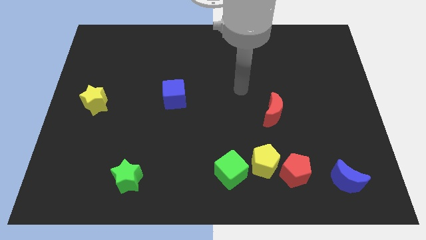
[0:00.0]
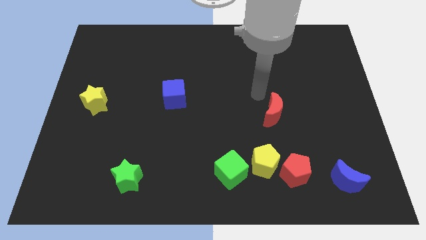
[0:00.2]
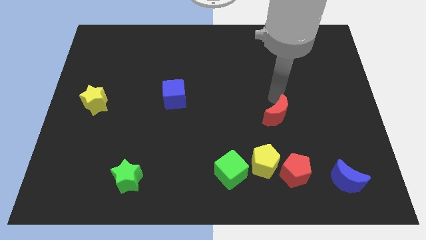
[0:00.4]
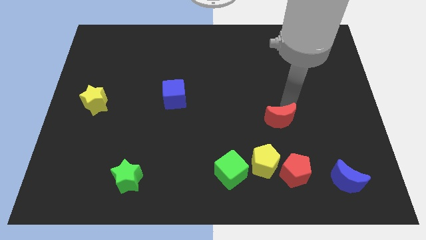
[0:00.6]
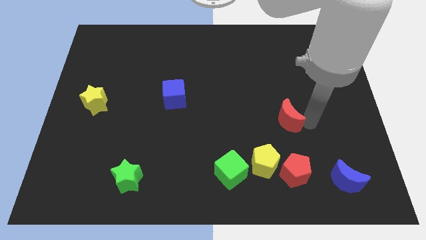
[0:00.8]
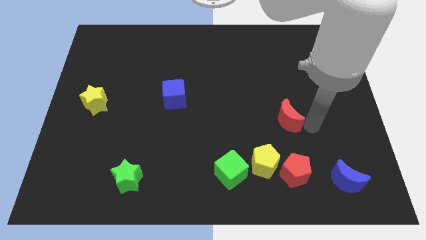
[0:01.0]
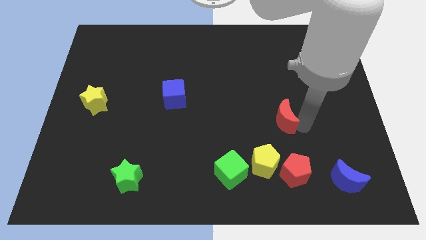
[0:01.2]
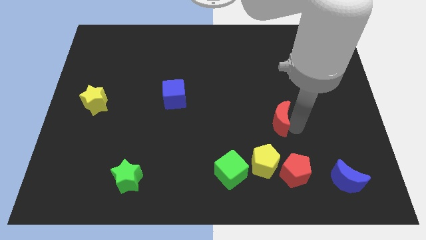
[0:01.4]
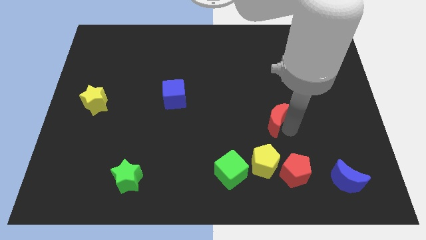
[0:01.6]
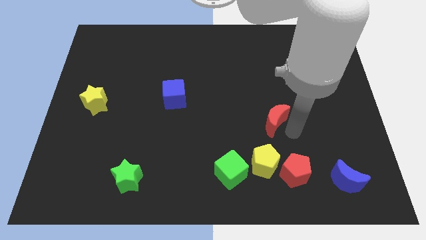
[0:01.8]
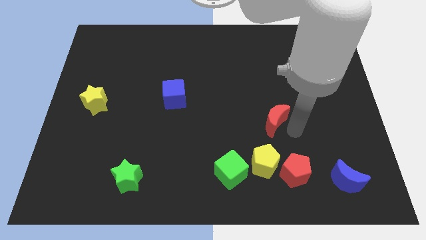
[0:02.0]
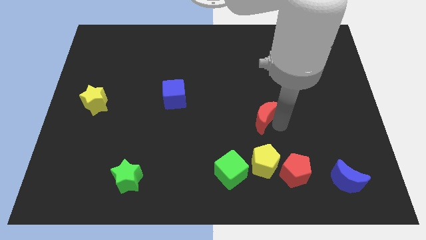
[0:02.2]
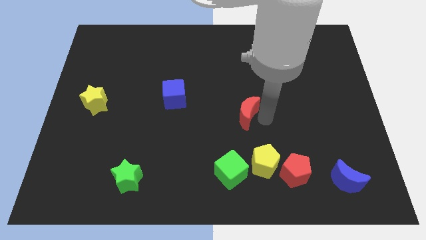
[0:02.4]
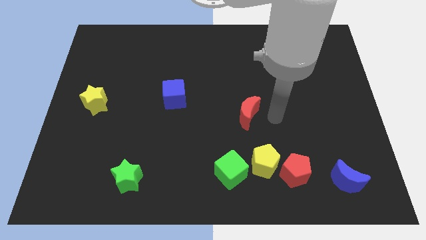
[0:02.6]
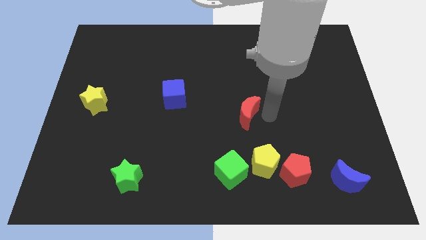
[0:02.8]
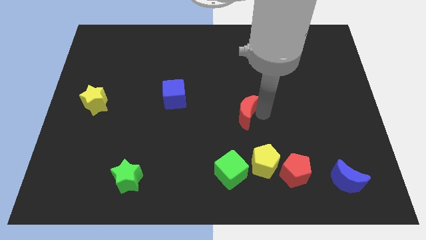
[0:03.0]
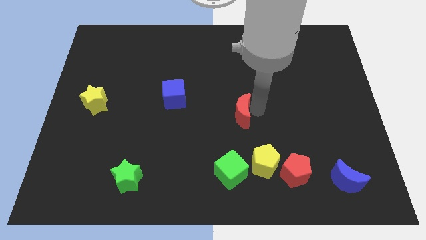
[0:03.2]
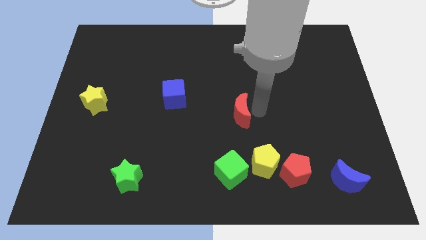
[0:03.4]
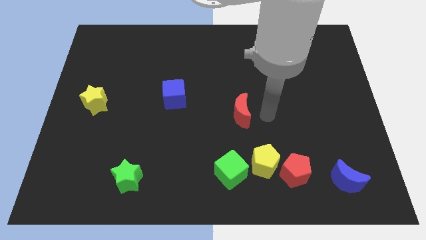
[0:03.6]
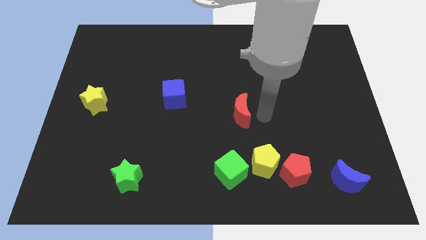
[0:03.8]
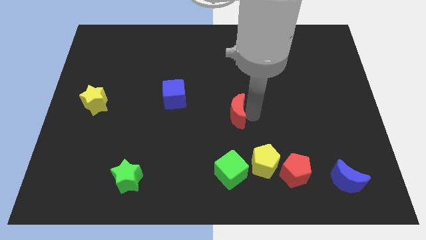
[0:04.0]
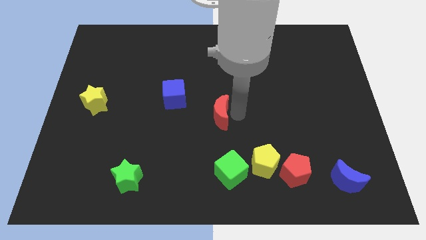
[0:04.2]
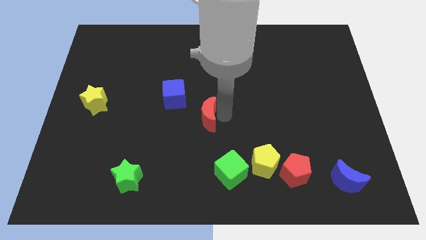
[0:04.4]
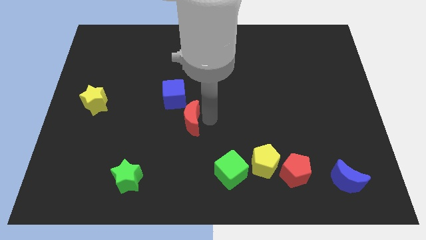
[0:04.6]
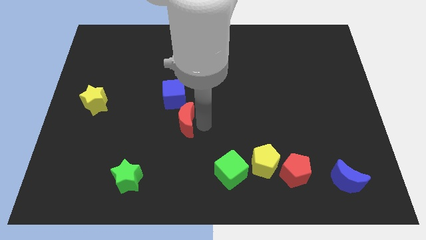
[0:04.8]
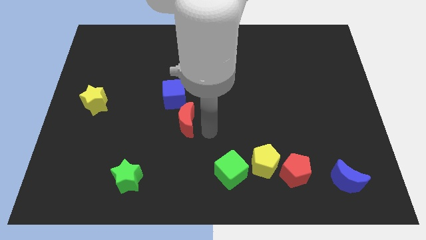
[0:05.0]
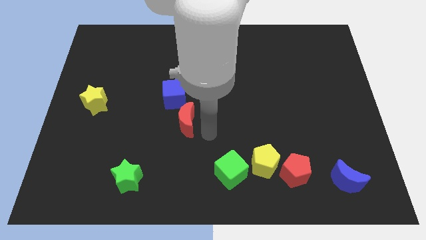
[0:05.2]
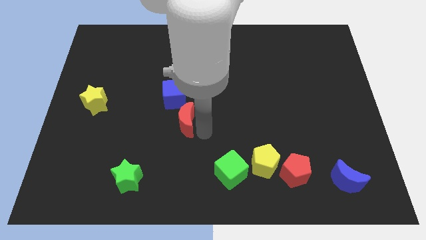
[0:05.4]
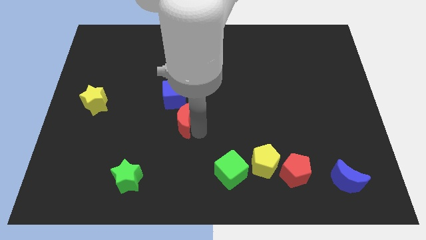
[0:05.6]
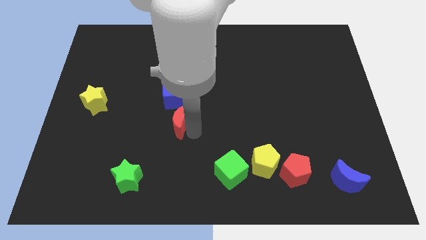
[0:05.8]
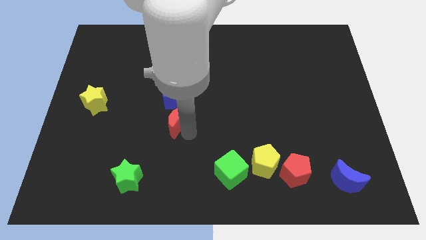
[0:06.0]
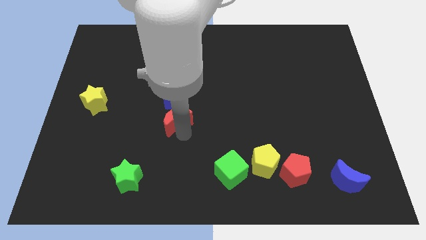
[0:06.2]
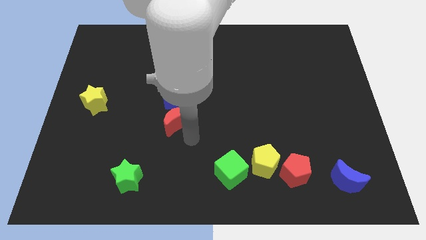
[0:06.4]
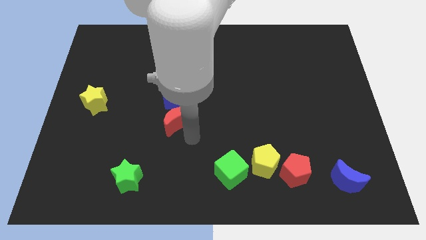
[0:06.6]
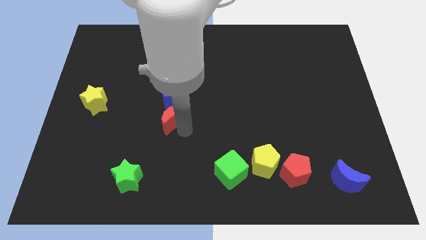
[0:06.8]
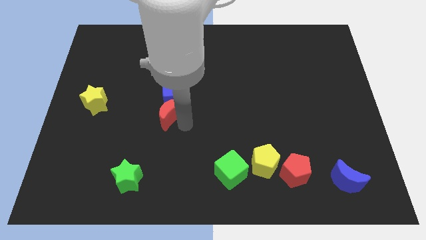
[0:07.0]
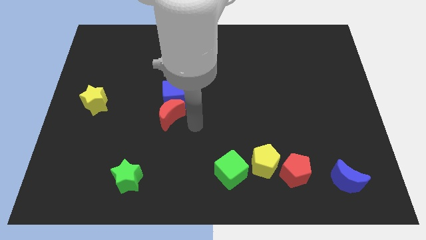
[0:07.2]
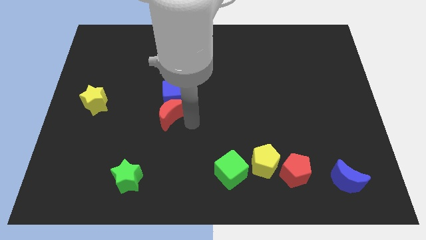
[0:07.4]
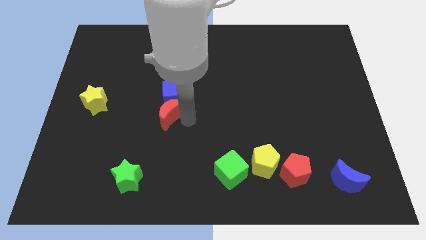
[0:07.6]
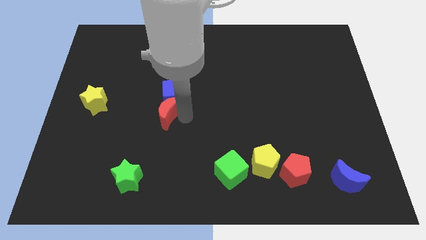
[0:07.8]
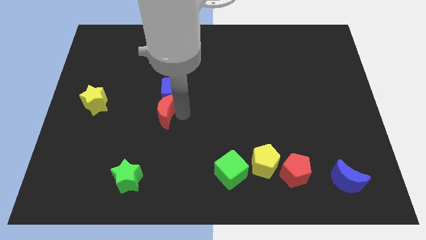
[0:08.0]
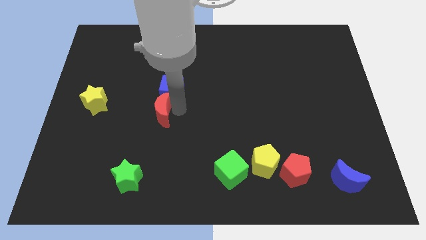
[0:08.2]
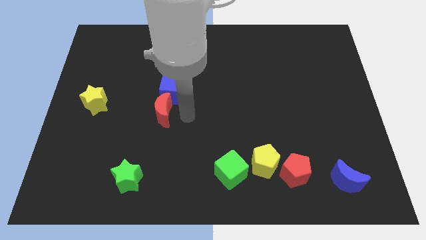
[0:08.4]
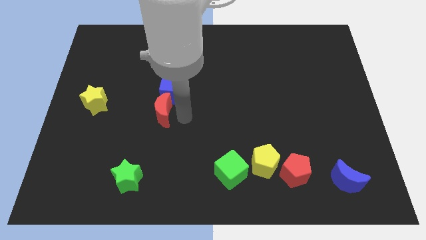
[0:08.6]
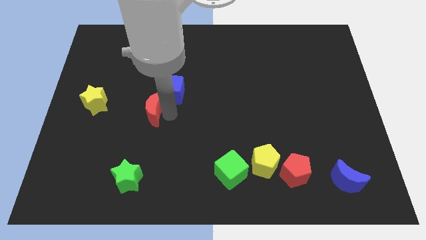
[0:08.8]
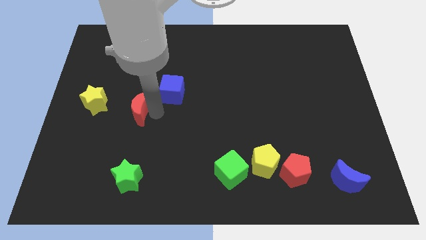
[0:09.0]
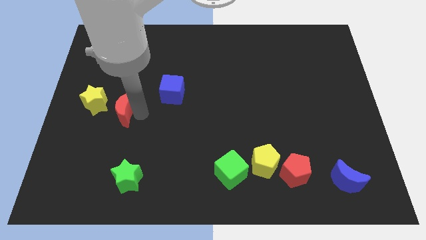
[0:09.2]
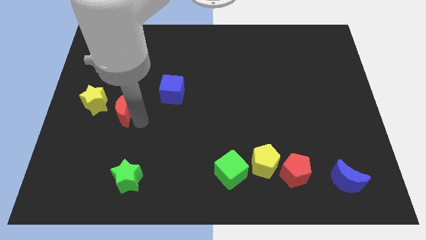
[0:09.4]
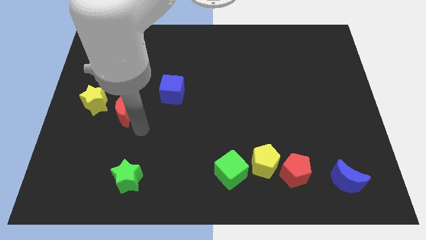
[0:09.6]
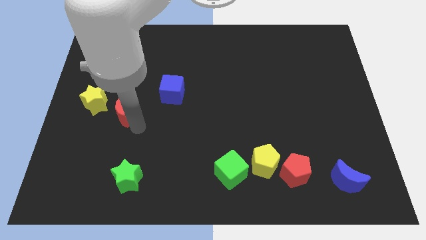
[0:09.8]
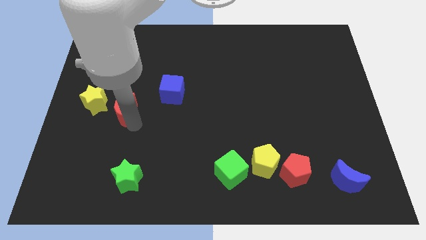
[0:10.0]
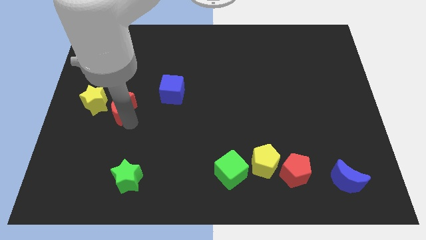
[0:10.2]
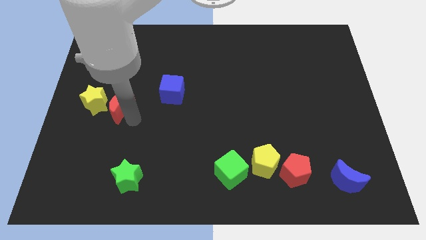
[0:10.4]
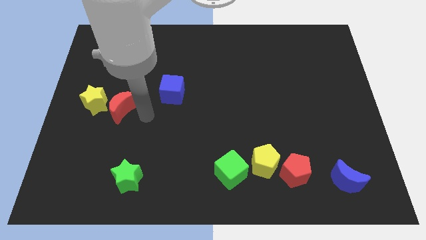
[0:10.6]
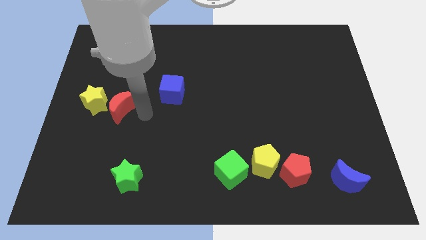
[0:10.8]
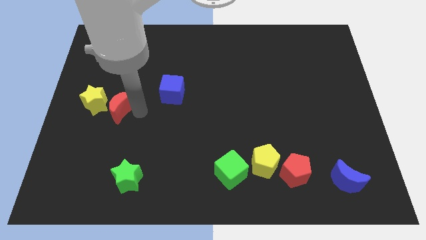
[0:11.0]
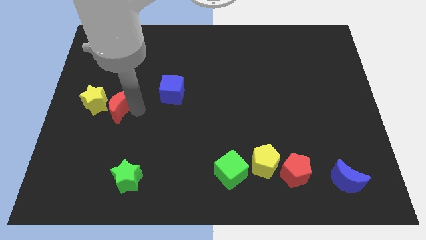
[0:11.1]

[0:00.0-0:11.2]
put the red moon next to the yellow star
